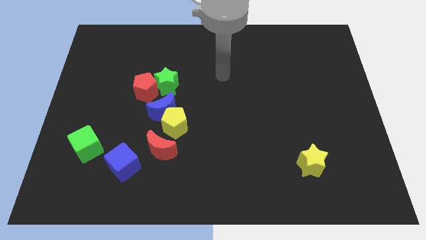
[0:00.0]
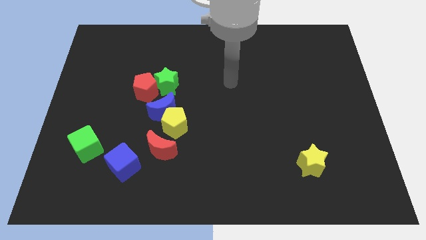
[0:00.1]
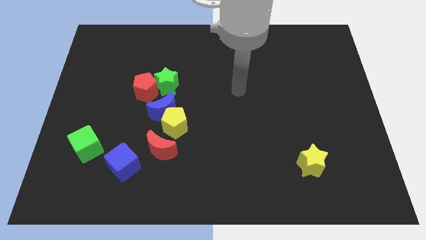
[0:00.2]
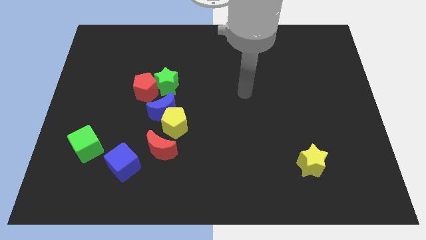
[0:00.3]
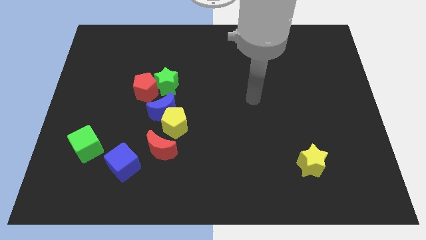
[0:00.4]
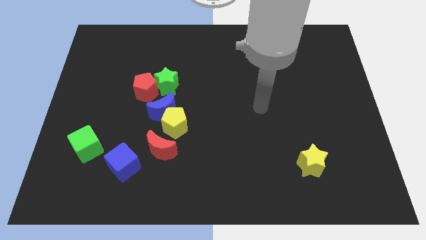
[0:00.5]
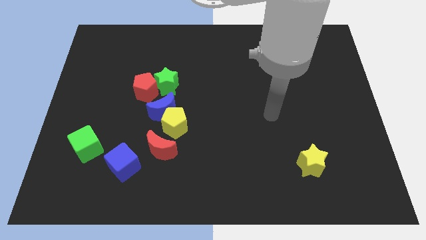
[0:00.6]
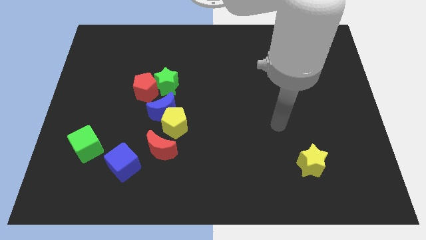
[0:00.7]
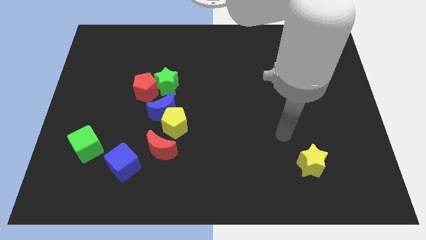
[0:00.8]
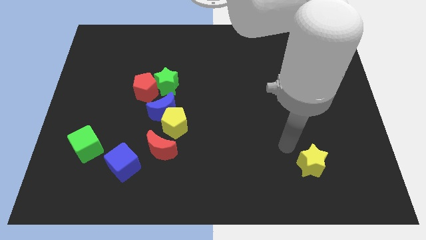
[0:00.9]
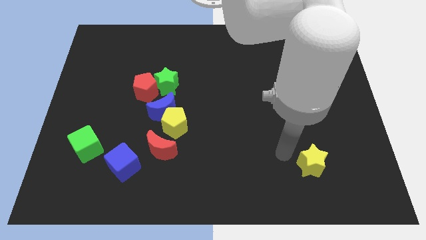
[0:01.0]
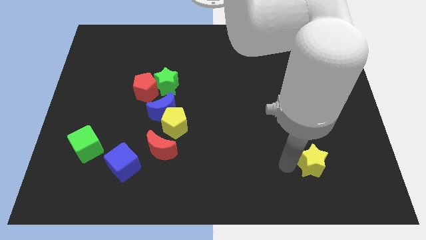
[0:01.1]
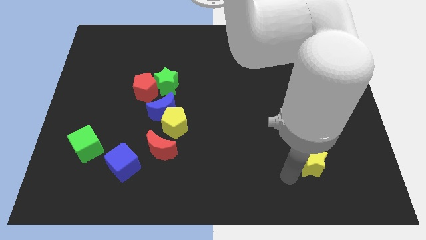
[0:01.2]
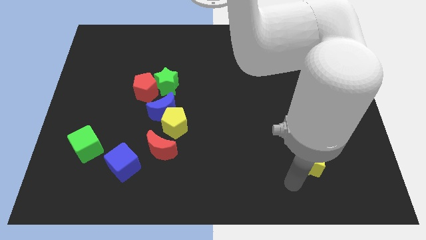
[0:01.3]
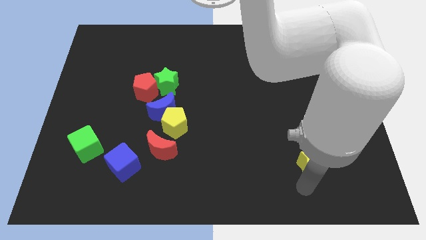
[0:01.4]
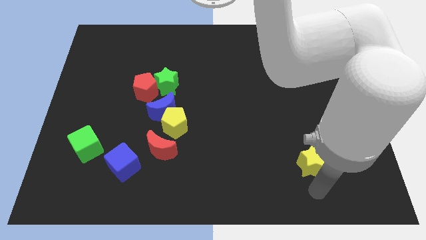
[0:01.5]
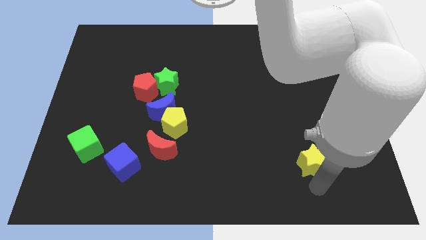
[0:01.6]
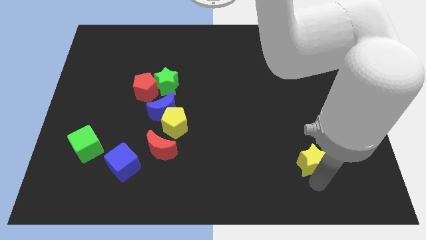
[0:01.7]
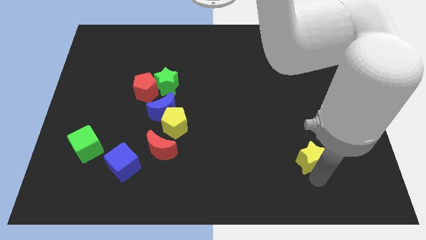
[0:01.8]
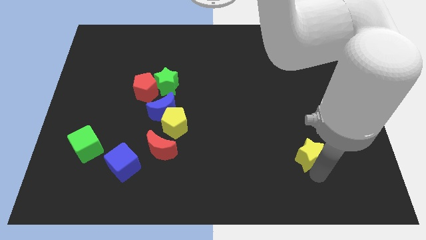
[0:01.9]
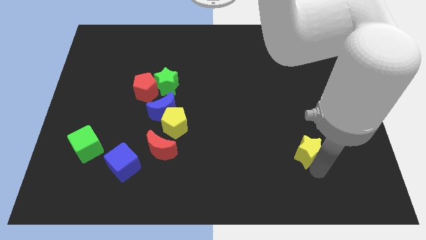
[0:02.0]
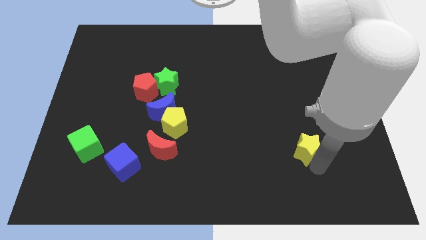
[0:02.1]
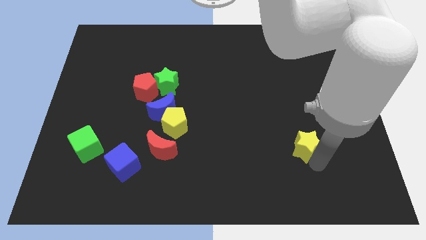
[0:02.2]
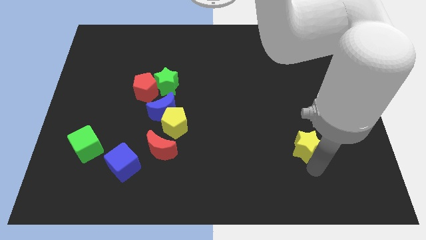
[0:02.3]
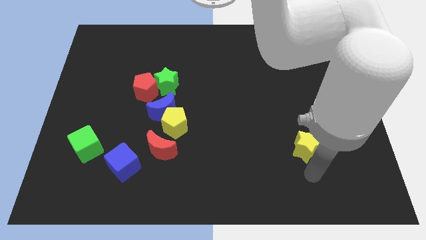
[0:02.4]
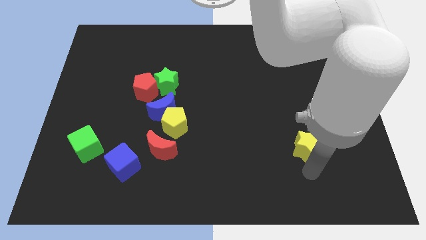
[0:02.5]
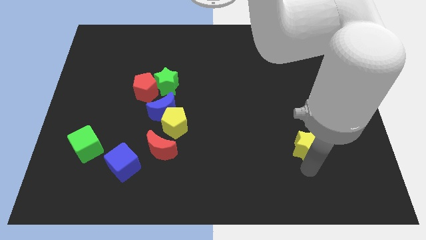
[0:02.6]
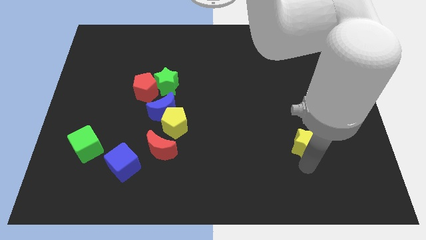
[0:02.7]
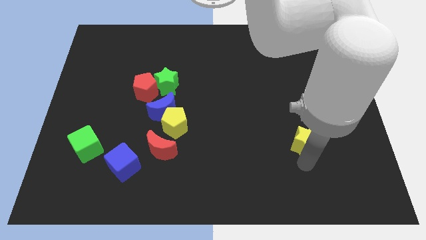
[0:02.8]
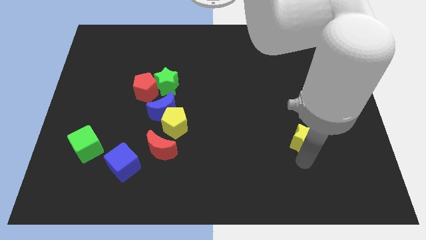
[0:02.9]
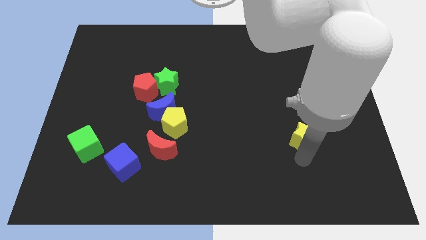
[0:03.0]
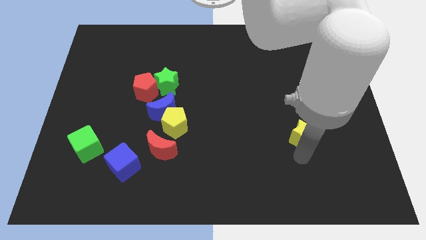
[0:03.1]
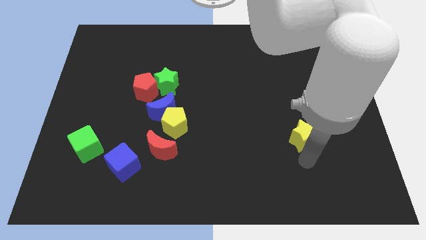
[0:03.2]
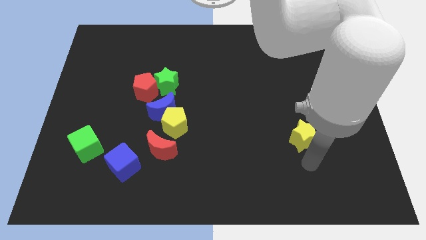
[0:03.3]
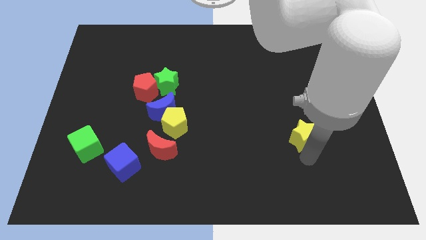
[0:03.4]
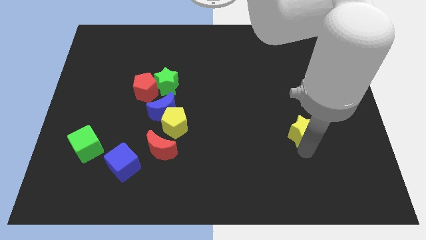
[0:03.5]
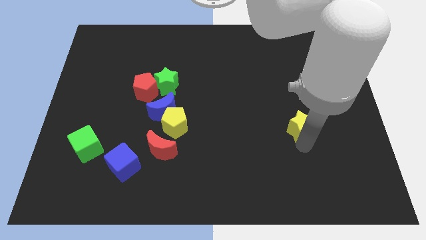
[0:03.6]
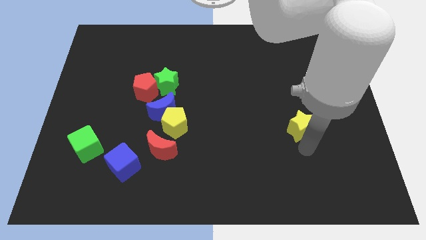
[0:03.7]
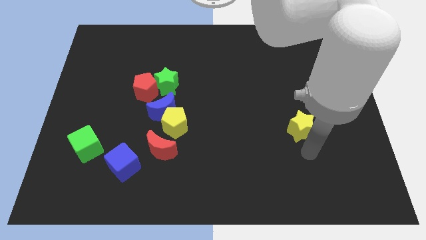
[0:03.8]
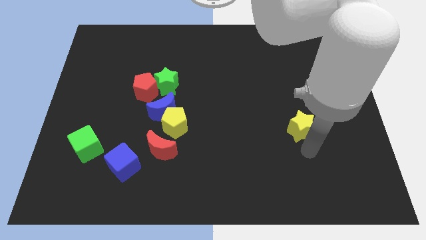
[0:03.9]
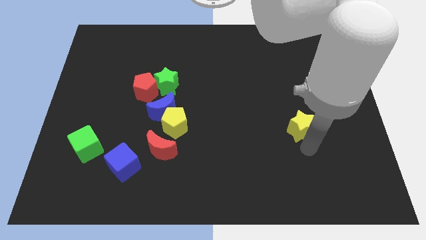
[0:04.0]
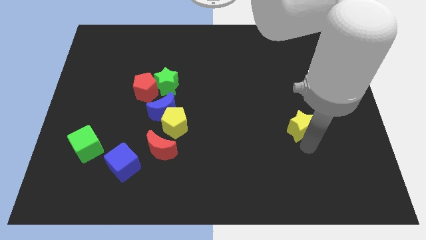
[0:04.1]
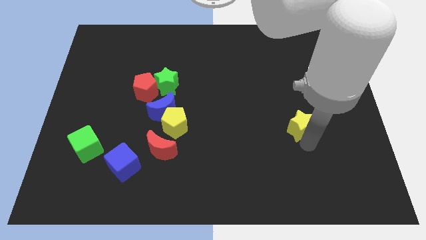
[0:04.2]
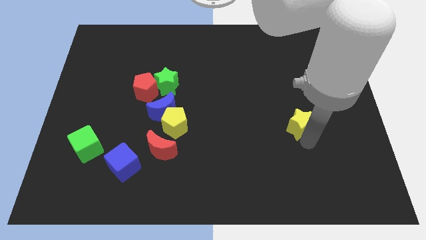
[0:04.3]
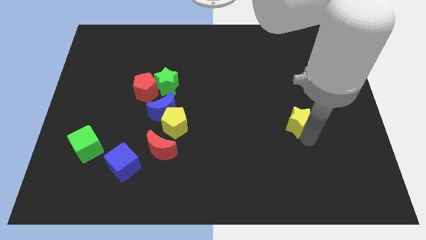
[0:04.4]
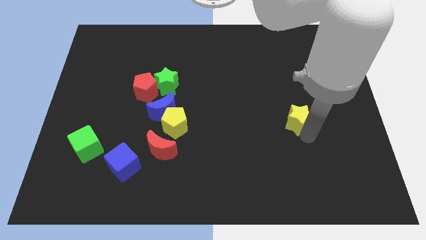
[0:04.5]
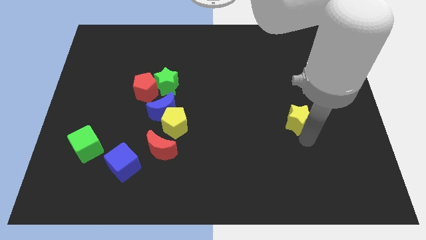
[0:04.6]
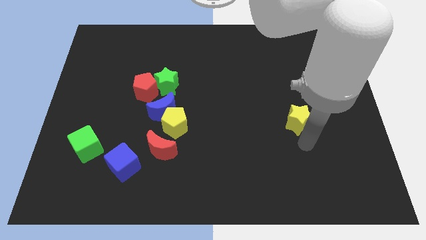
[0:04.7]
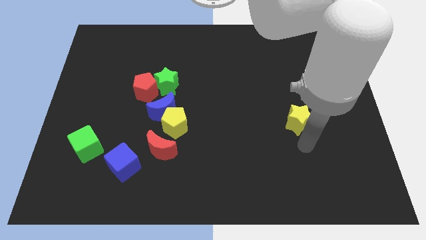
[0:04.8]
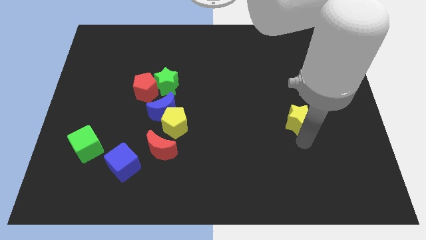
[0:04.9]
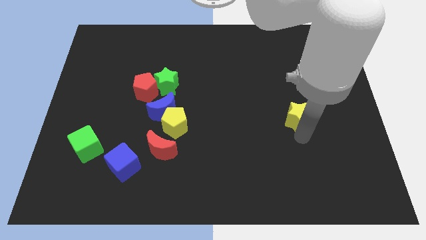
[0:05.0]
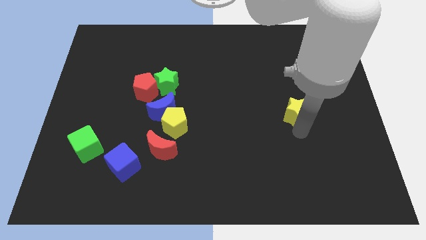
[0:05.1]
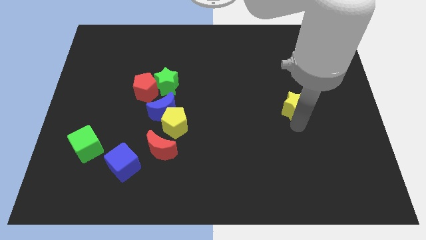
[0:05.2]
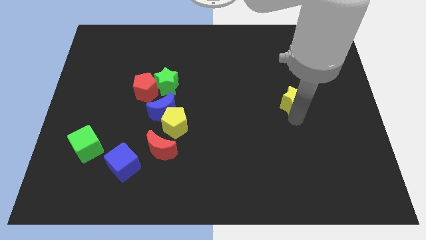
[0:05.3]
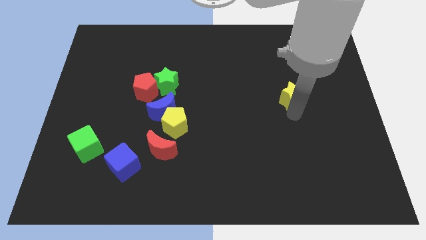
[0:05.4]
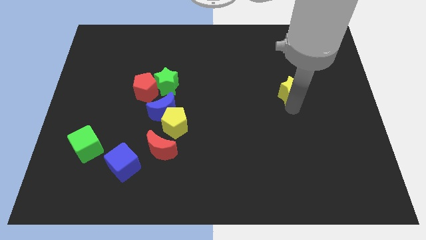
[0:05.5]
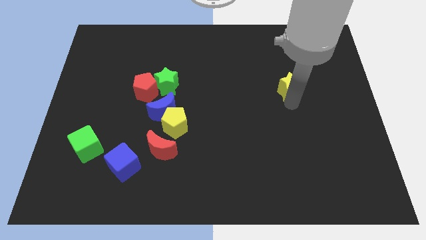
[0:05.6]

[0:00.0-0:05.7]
slide the yellow star upwards

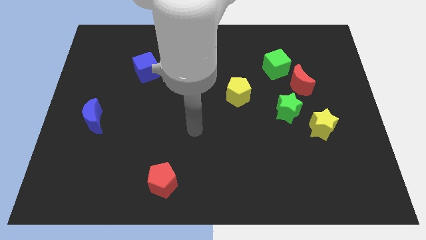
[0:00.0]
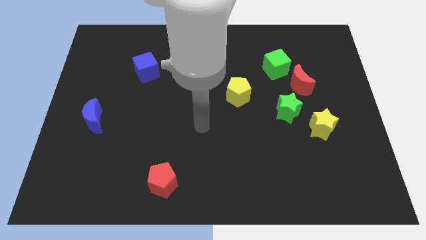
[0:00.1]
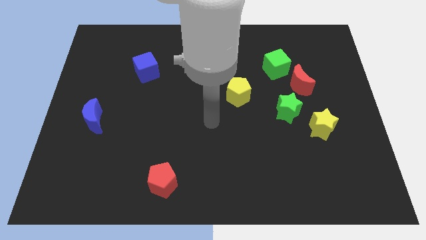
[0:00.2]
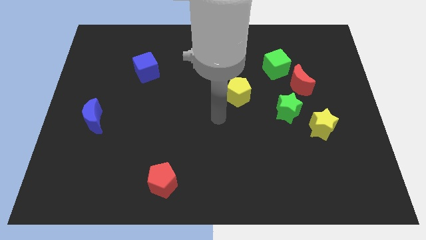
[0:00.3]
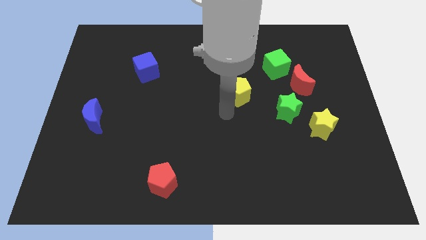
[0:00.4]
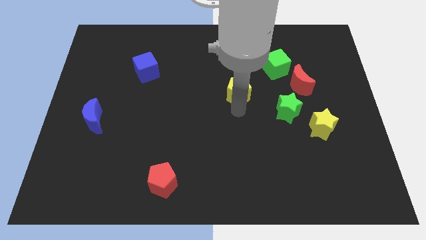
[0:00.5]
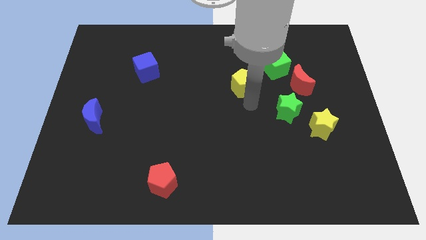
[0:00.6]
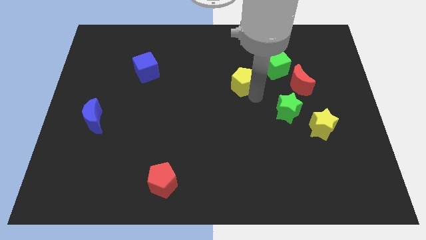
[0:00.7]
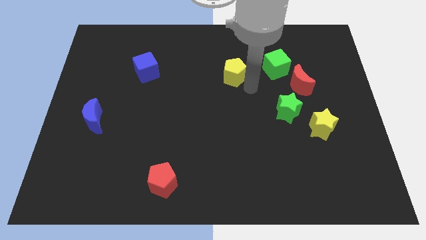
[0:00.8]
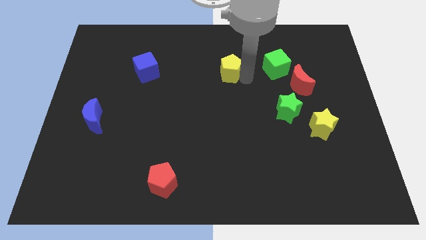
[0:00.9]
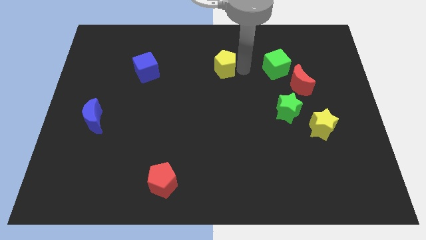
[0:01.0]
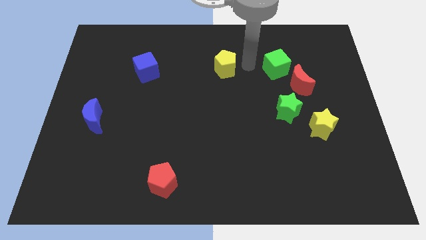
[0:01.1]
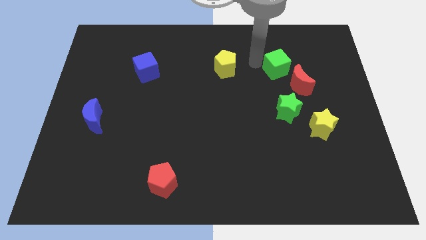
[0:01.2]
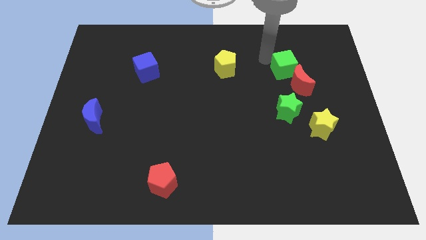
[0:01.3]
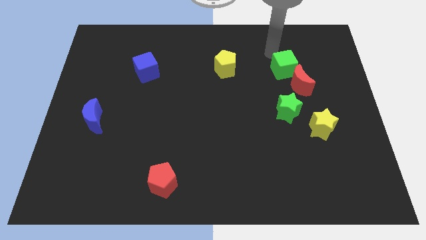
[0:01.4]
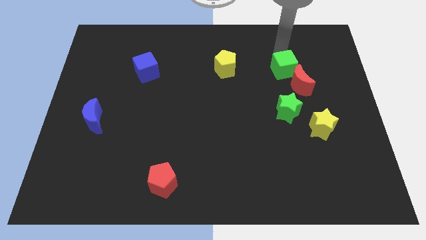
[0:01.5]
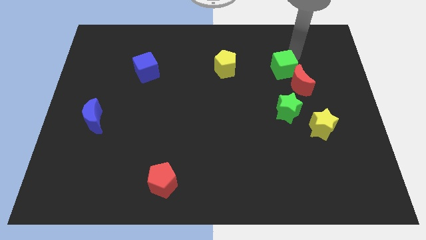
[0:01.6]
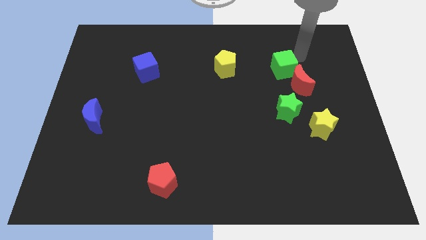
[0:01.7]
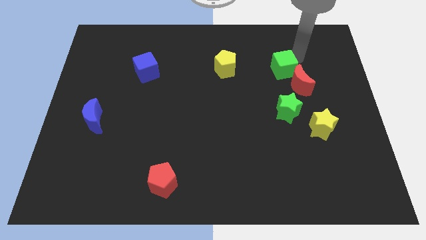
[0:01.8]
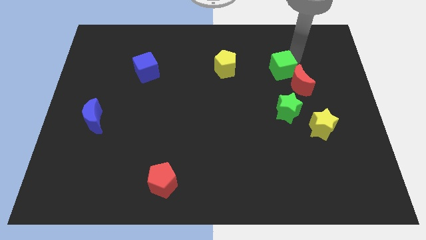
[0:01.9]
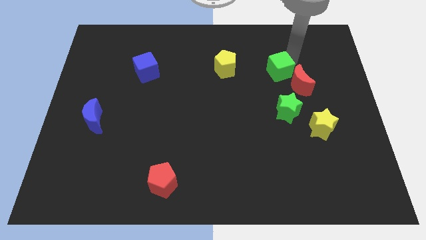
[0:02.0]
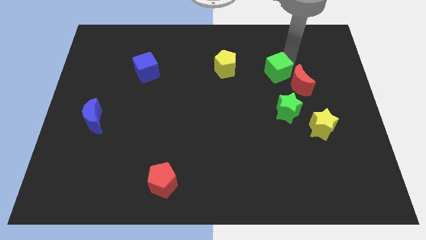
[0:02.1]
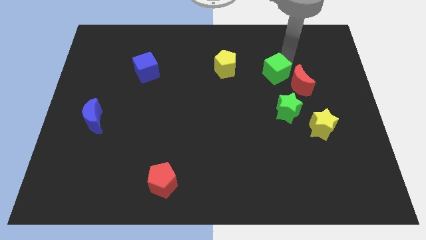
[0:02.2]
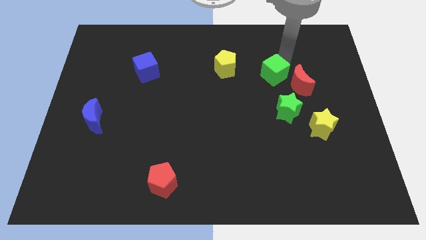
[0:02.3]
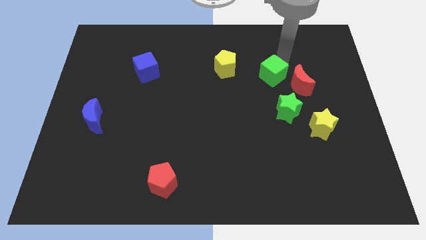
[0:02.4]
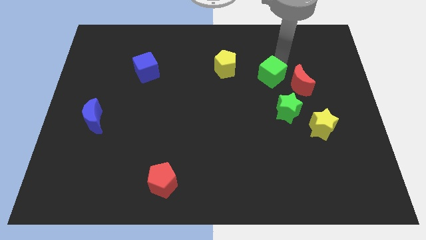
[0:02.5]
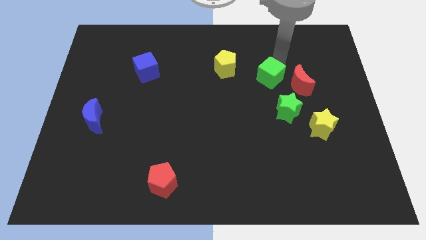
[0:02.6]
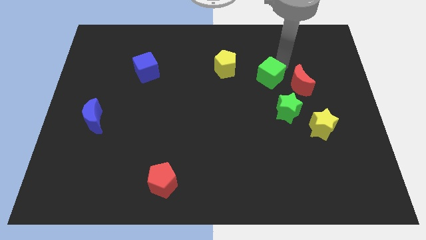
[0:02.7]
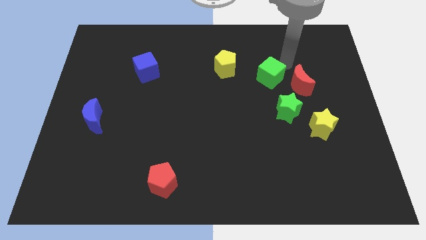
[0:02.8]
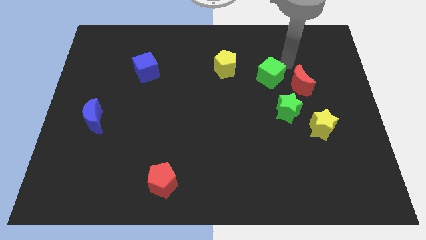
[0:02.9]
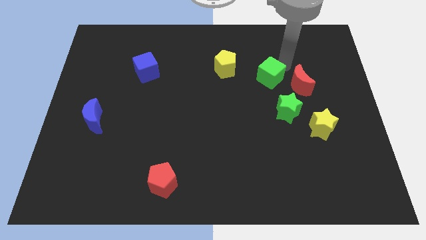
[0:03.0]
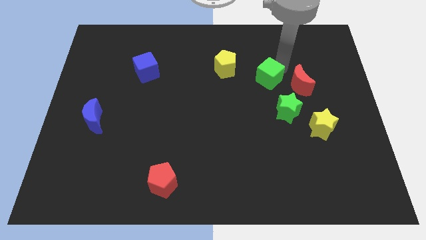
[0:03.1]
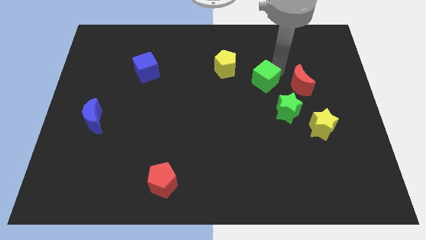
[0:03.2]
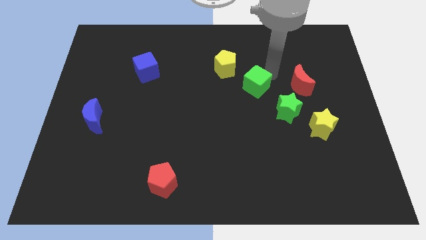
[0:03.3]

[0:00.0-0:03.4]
slightly slide the green cube down and then to the left
